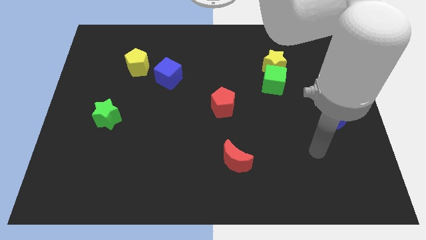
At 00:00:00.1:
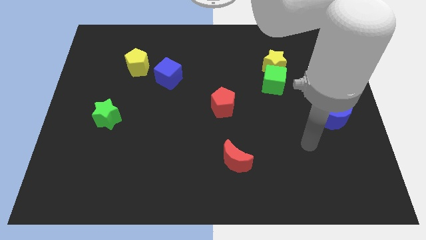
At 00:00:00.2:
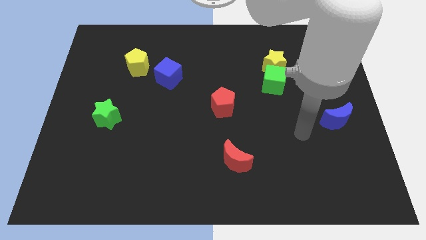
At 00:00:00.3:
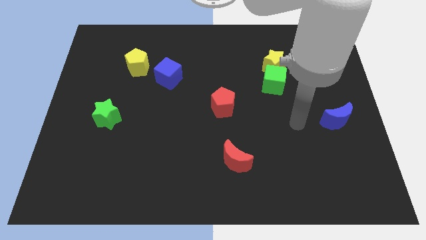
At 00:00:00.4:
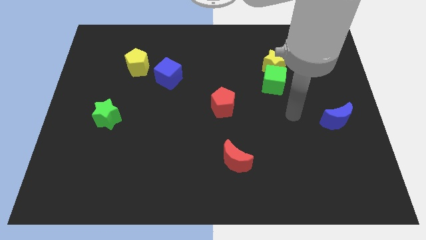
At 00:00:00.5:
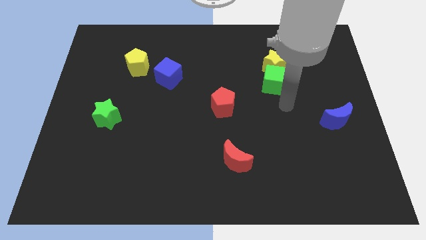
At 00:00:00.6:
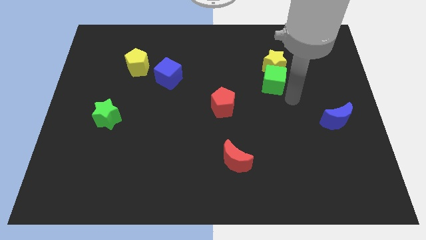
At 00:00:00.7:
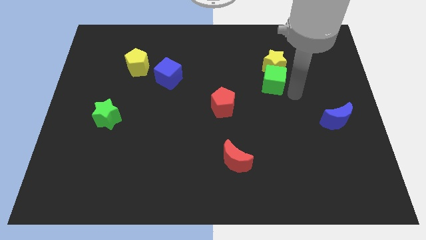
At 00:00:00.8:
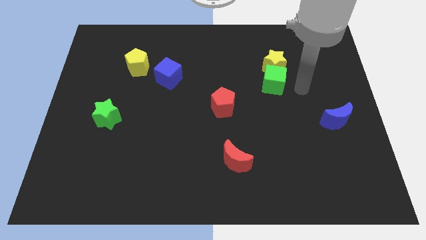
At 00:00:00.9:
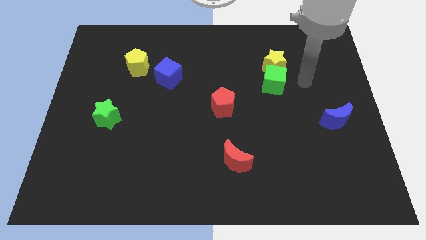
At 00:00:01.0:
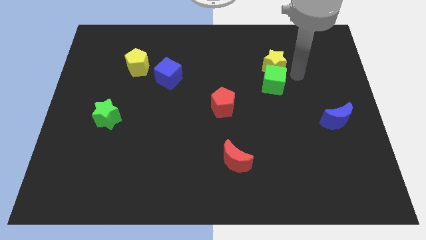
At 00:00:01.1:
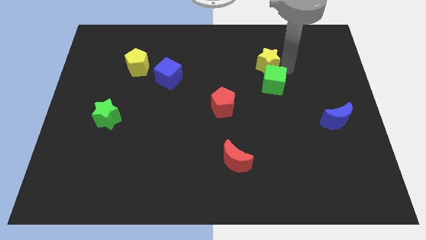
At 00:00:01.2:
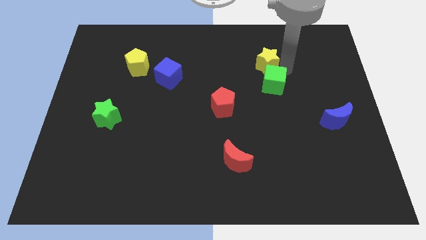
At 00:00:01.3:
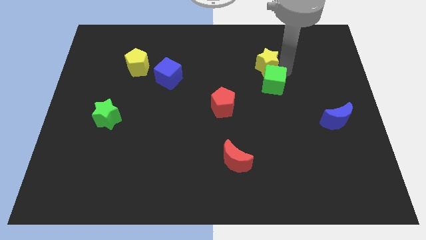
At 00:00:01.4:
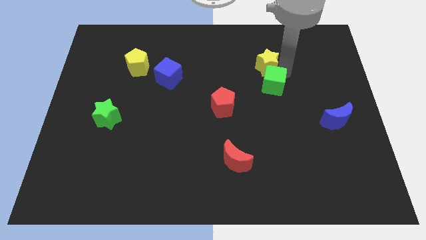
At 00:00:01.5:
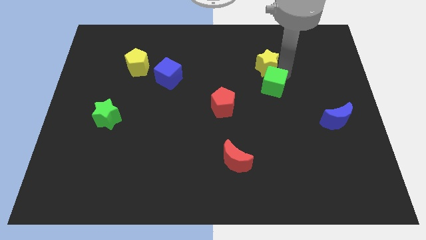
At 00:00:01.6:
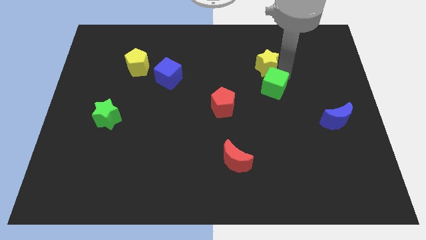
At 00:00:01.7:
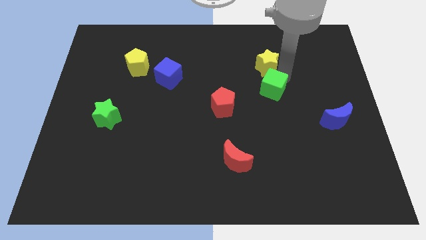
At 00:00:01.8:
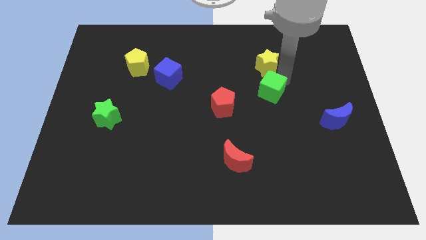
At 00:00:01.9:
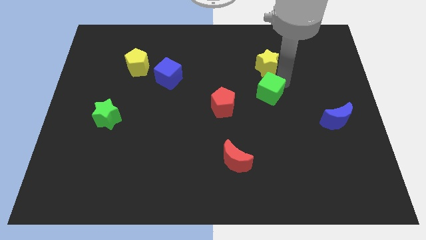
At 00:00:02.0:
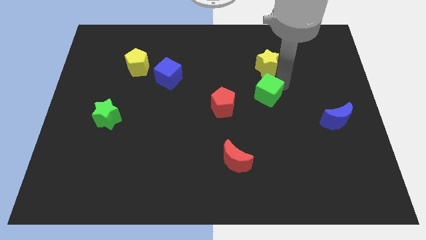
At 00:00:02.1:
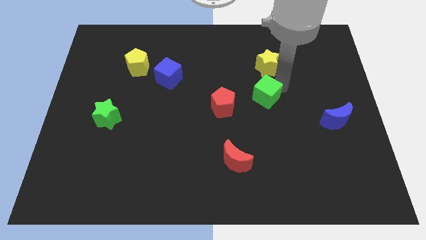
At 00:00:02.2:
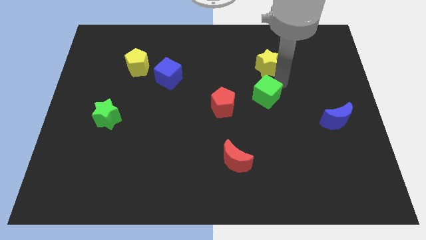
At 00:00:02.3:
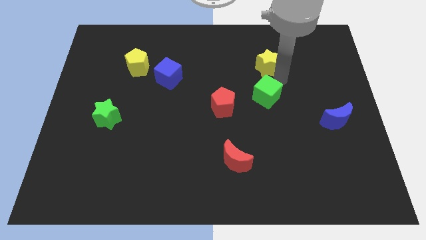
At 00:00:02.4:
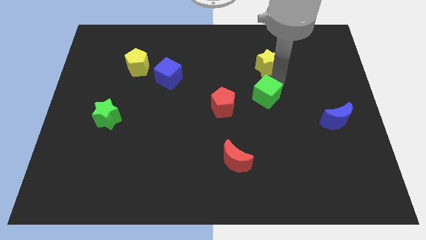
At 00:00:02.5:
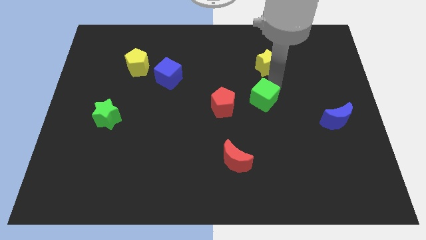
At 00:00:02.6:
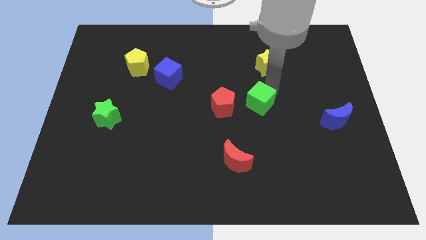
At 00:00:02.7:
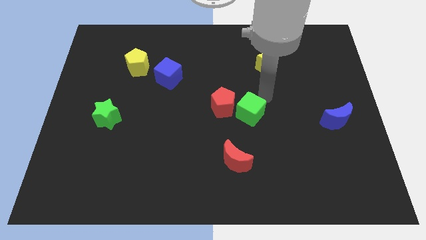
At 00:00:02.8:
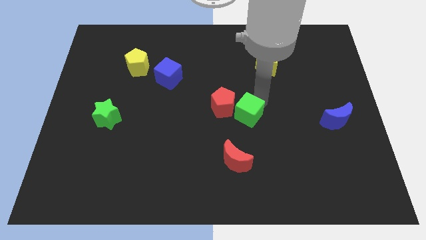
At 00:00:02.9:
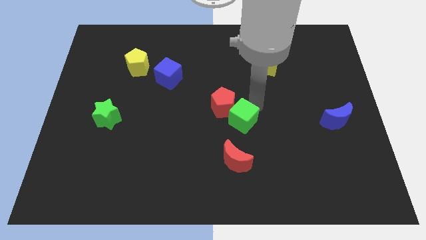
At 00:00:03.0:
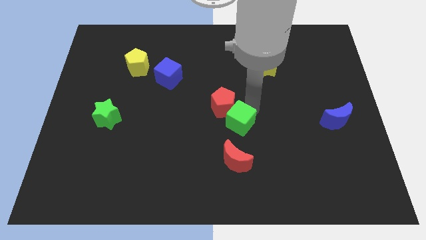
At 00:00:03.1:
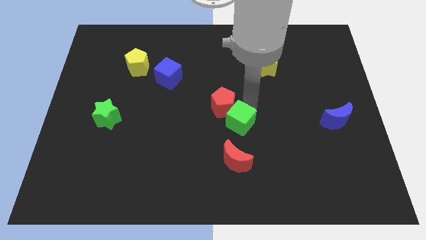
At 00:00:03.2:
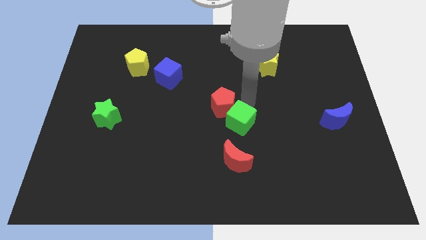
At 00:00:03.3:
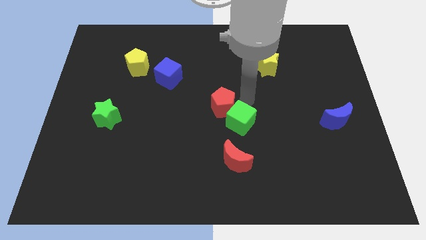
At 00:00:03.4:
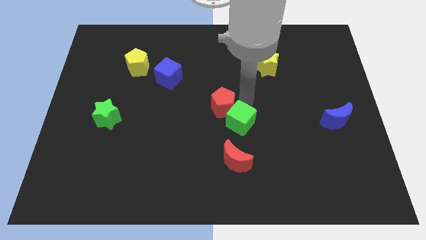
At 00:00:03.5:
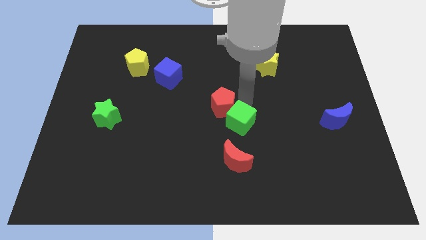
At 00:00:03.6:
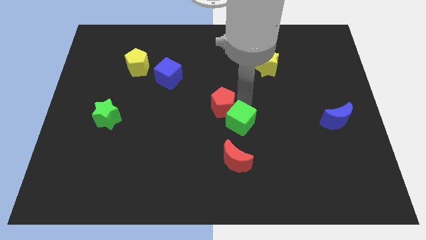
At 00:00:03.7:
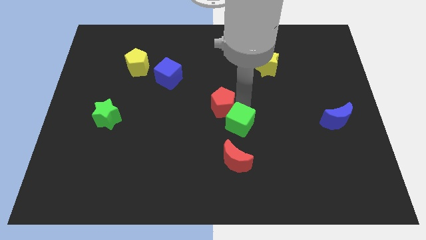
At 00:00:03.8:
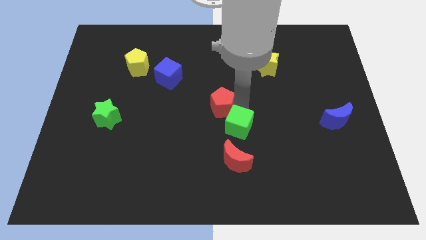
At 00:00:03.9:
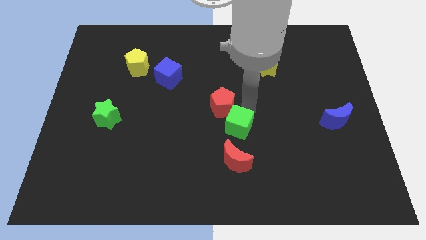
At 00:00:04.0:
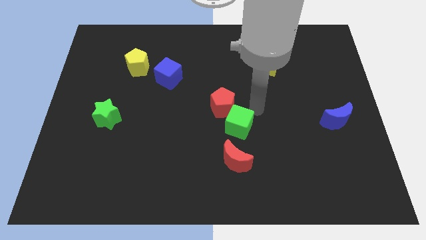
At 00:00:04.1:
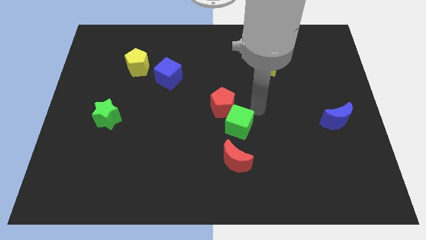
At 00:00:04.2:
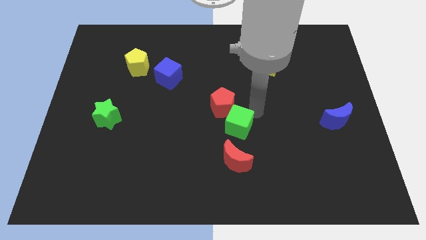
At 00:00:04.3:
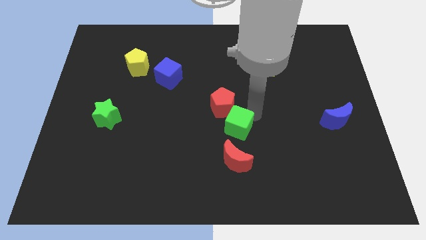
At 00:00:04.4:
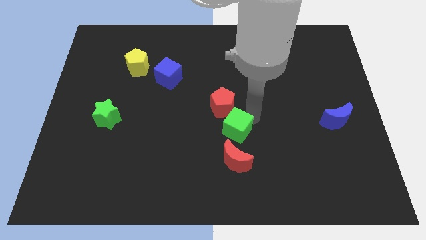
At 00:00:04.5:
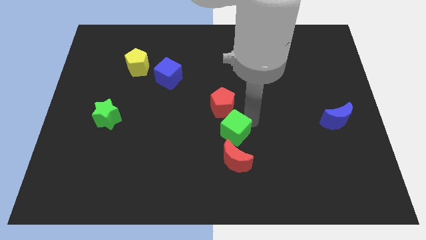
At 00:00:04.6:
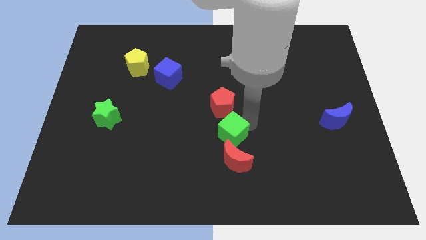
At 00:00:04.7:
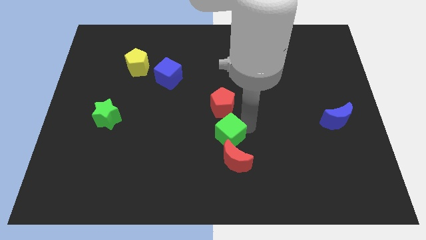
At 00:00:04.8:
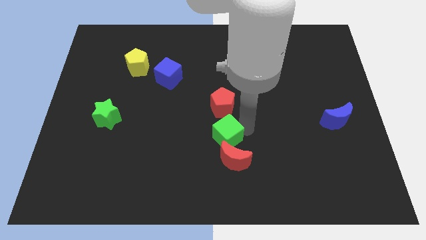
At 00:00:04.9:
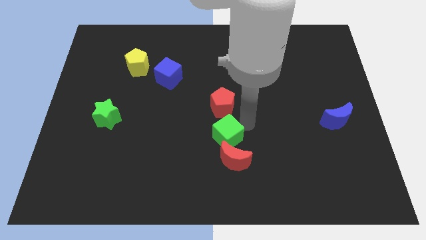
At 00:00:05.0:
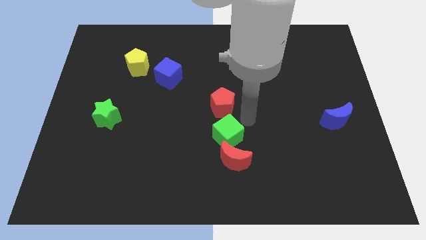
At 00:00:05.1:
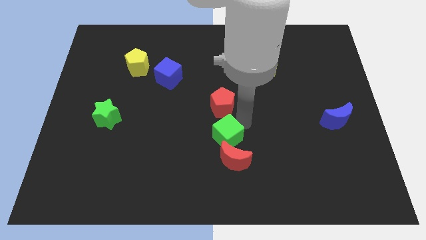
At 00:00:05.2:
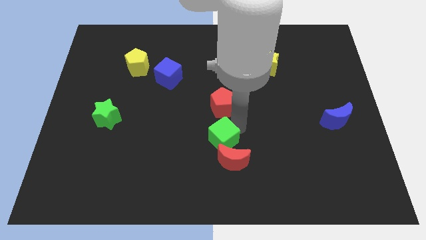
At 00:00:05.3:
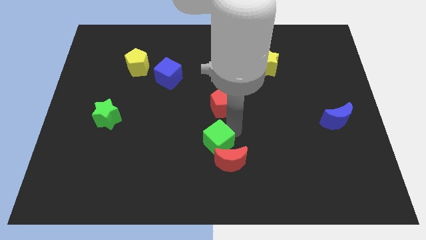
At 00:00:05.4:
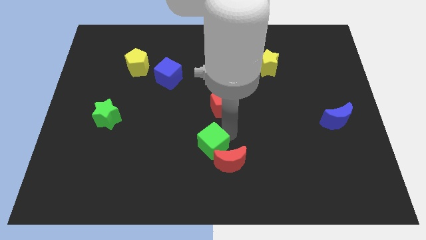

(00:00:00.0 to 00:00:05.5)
push the green cube just left of the red moon
